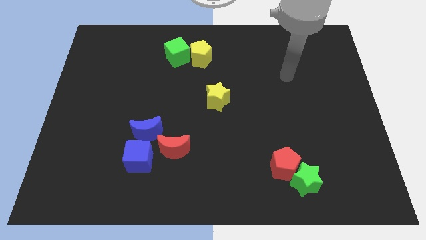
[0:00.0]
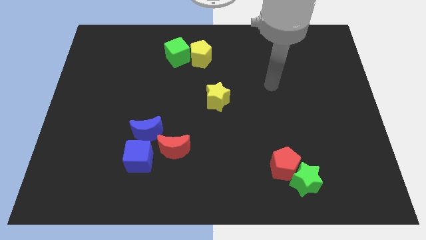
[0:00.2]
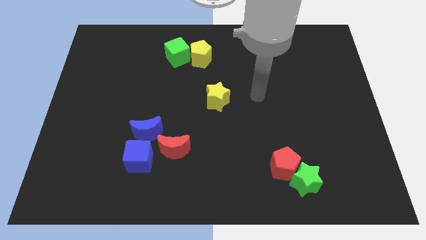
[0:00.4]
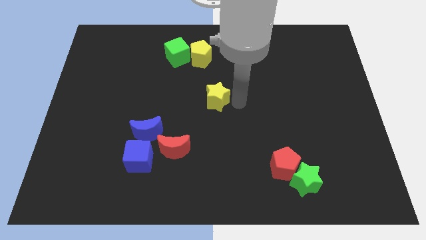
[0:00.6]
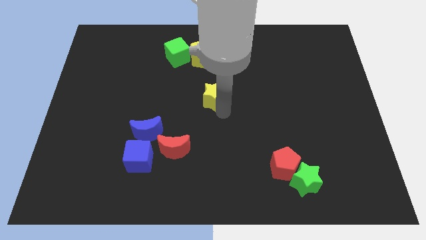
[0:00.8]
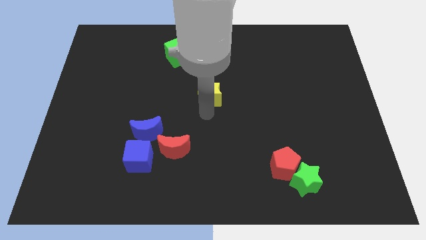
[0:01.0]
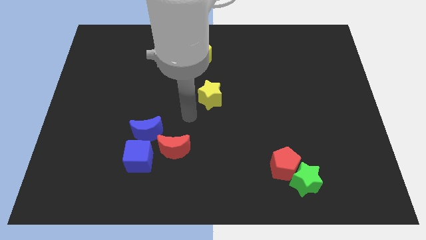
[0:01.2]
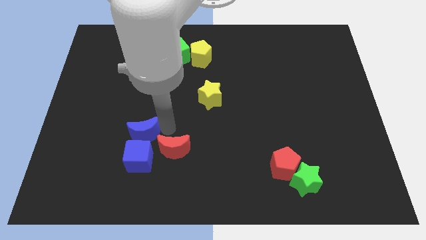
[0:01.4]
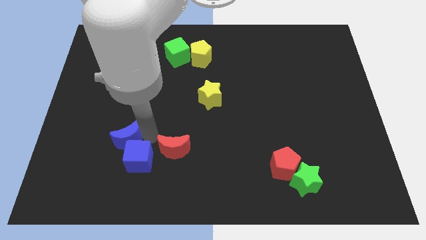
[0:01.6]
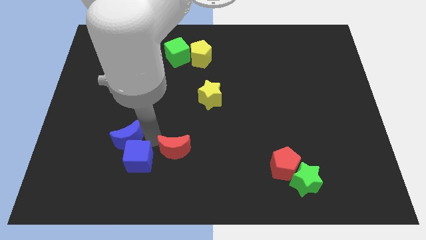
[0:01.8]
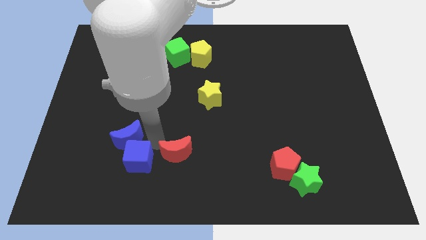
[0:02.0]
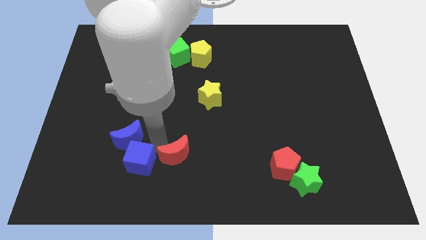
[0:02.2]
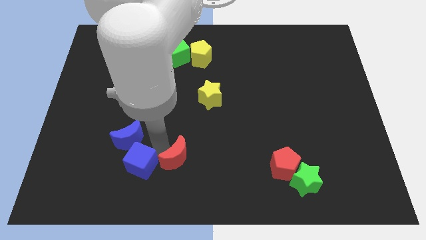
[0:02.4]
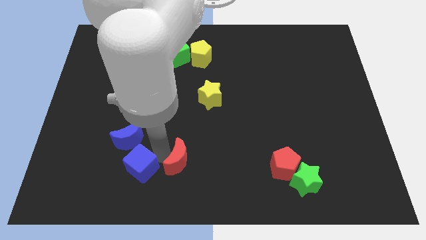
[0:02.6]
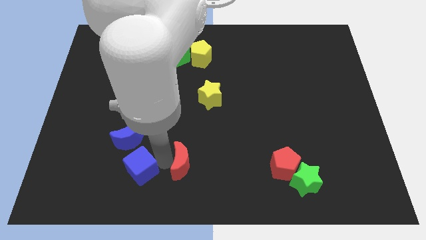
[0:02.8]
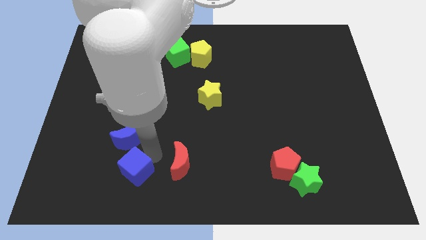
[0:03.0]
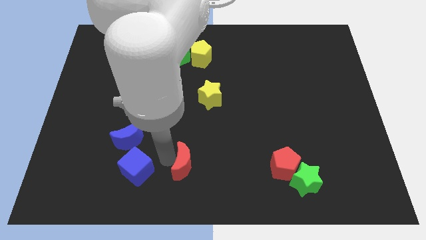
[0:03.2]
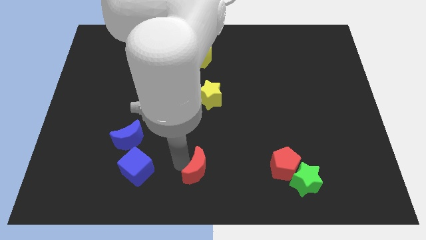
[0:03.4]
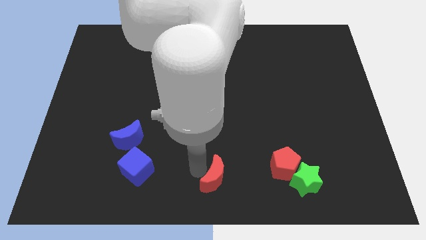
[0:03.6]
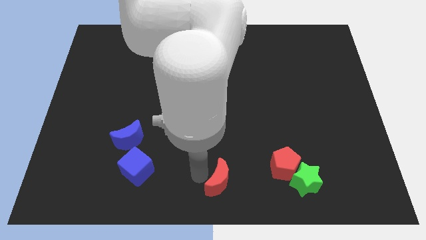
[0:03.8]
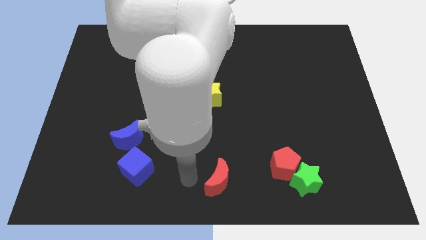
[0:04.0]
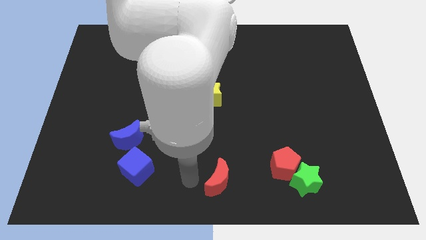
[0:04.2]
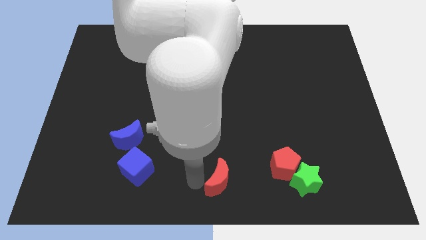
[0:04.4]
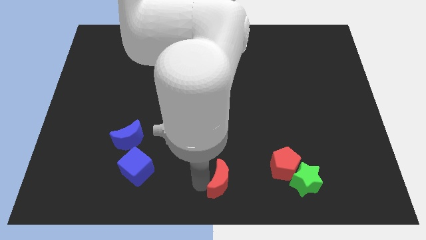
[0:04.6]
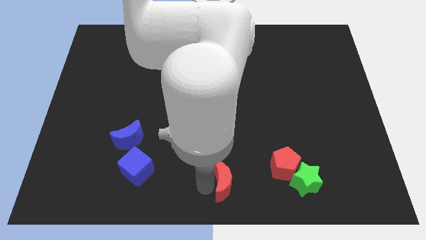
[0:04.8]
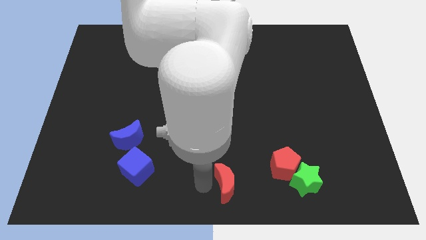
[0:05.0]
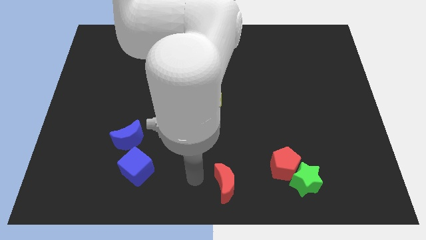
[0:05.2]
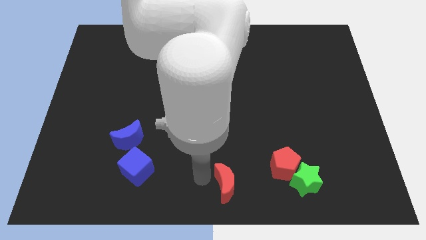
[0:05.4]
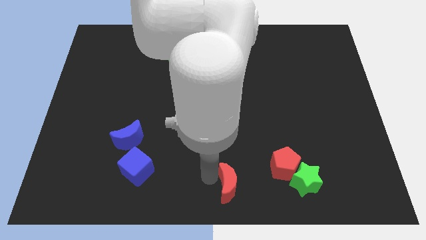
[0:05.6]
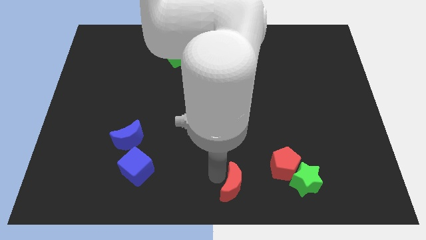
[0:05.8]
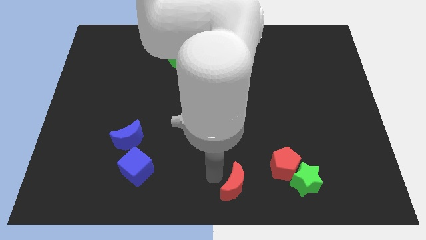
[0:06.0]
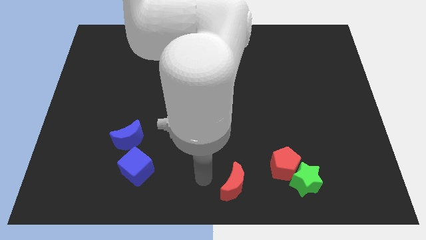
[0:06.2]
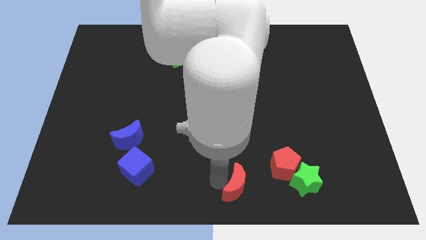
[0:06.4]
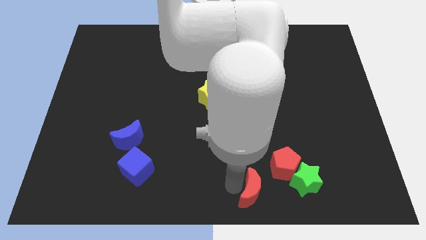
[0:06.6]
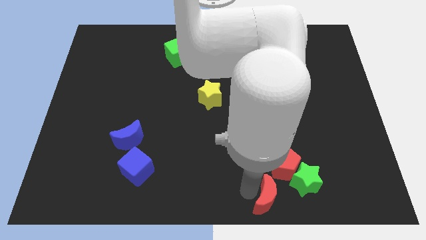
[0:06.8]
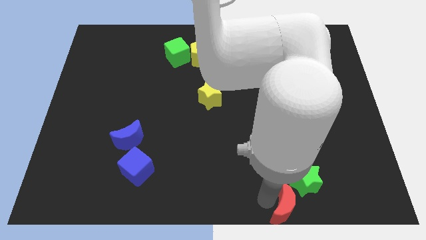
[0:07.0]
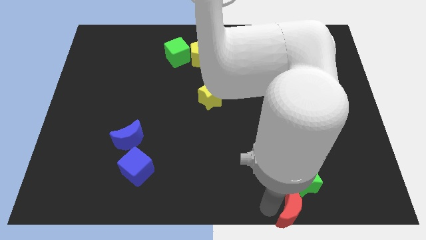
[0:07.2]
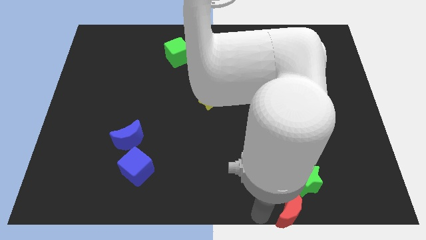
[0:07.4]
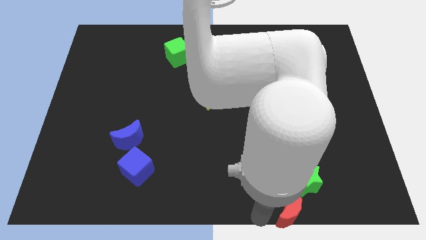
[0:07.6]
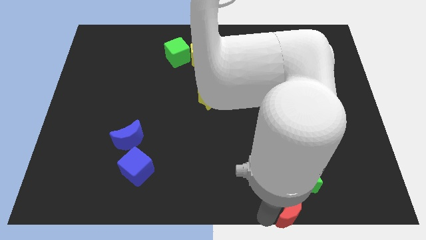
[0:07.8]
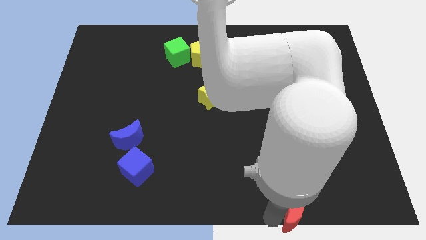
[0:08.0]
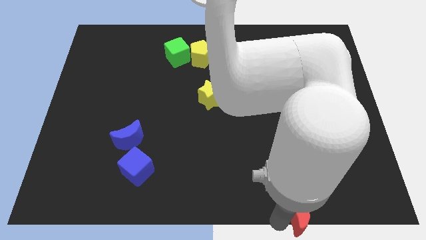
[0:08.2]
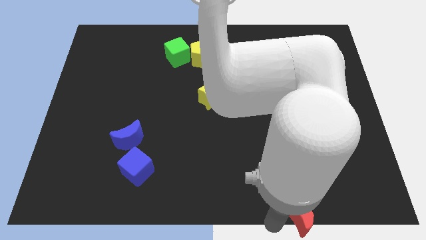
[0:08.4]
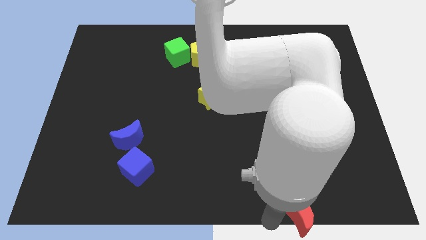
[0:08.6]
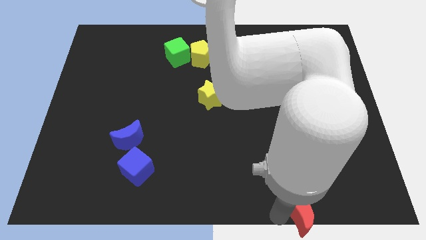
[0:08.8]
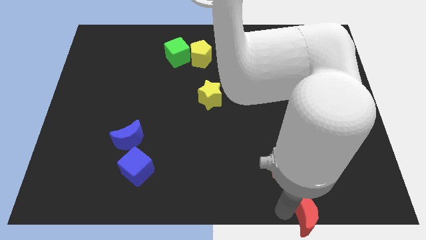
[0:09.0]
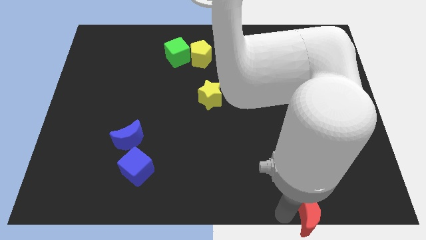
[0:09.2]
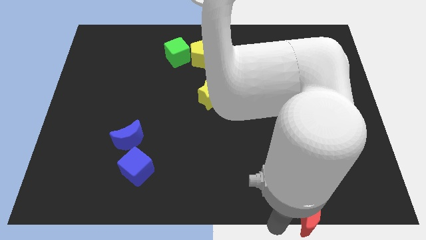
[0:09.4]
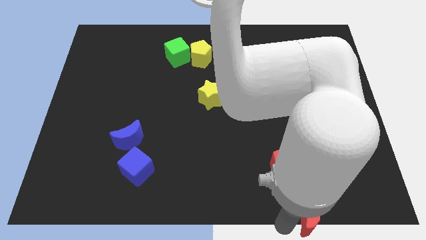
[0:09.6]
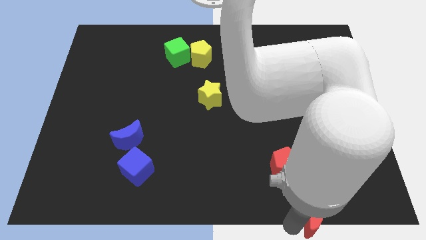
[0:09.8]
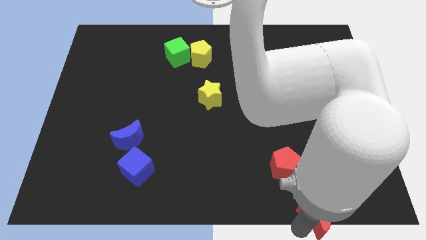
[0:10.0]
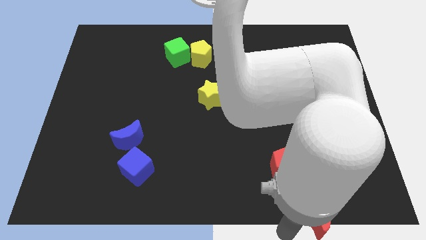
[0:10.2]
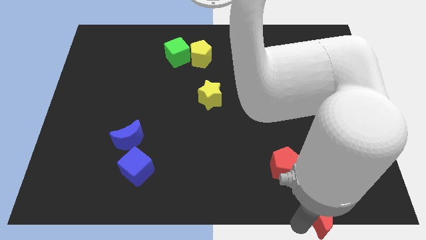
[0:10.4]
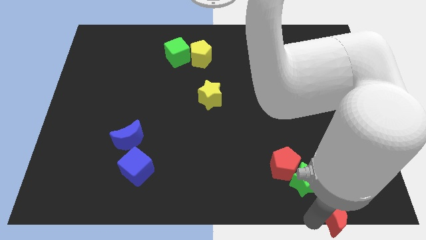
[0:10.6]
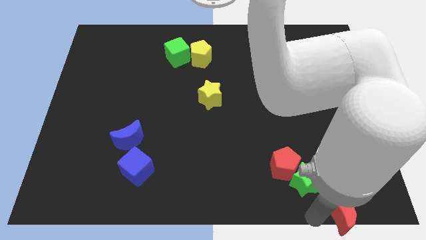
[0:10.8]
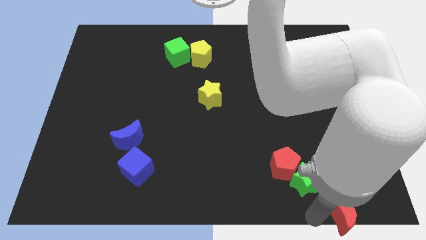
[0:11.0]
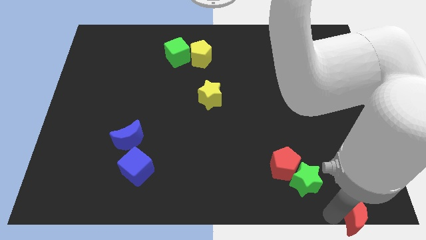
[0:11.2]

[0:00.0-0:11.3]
slide the red moon to the bottom right of the board

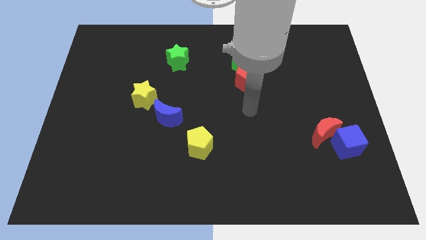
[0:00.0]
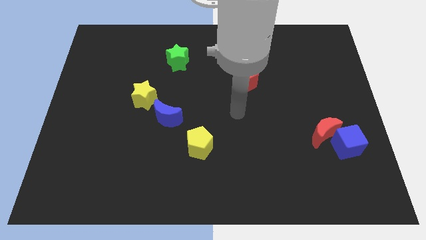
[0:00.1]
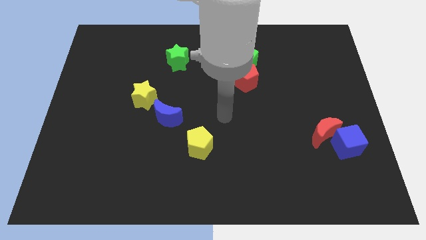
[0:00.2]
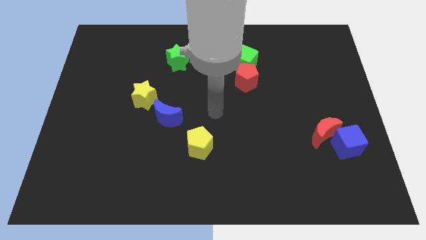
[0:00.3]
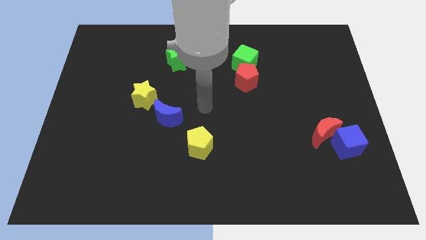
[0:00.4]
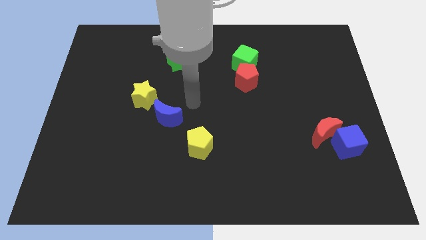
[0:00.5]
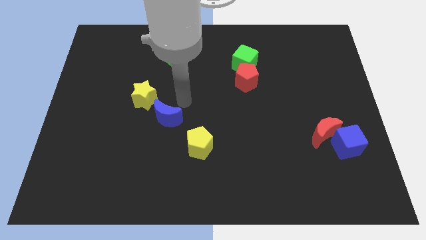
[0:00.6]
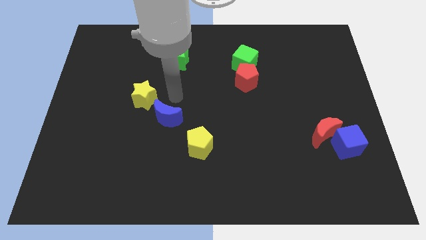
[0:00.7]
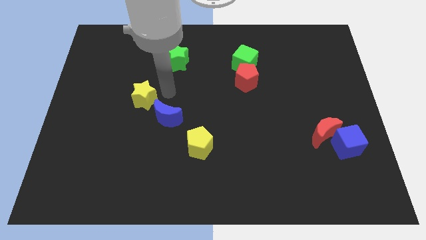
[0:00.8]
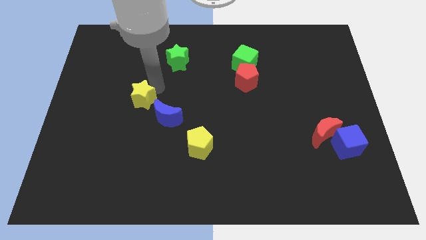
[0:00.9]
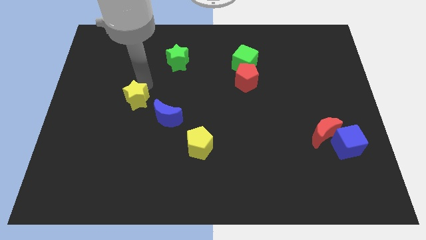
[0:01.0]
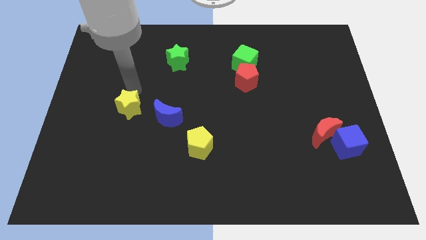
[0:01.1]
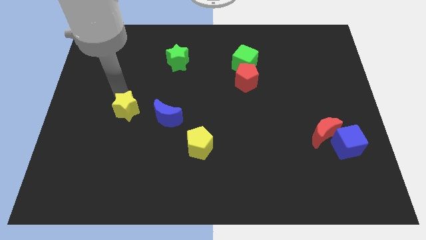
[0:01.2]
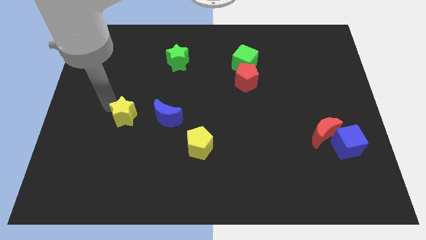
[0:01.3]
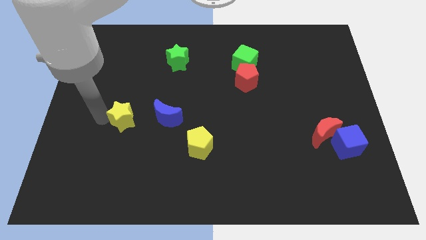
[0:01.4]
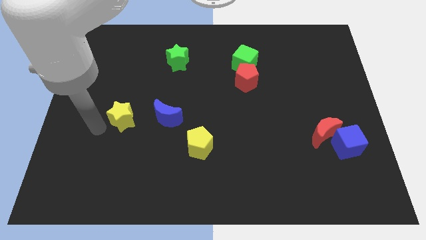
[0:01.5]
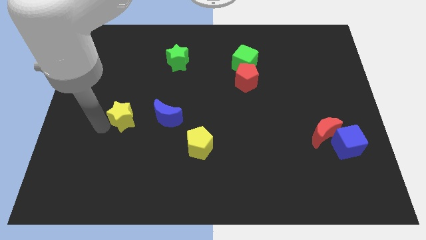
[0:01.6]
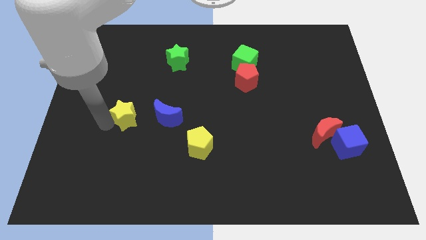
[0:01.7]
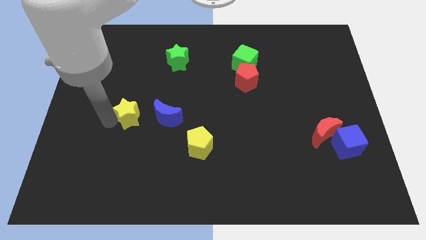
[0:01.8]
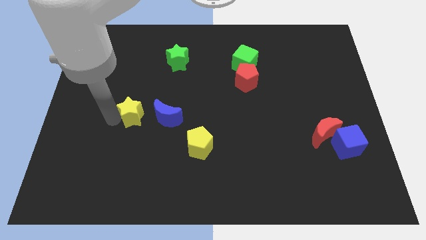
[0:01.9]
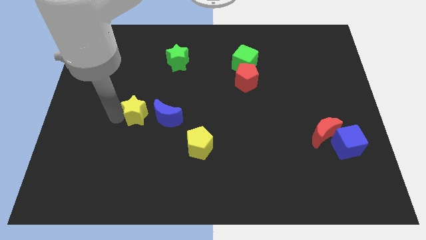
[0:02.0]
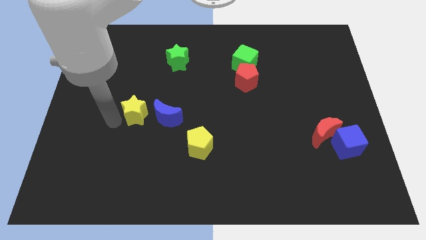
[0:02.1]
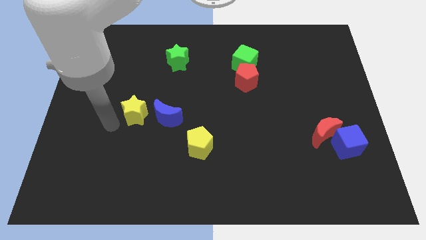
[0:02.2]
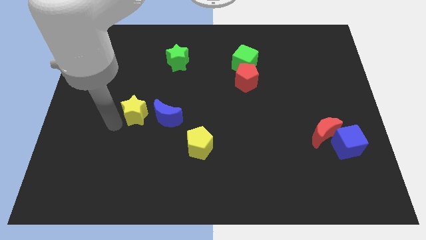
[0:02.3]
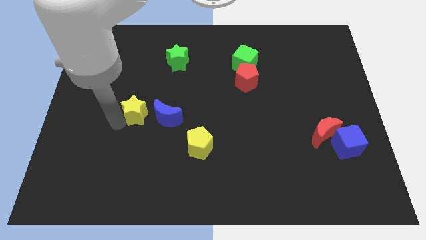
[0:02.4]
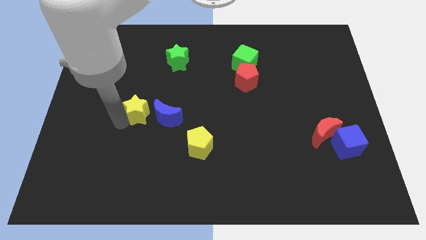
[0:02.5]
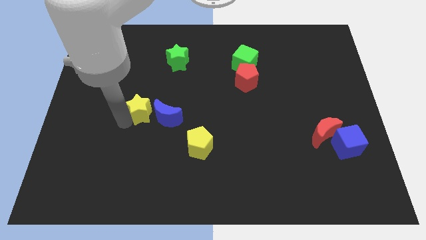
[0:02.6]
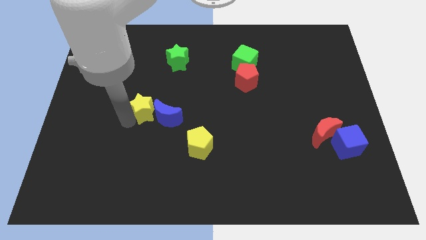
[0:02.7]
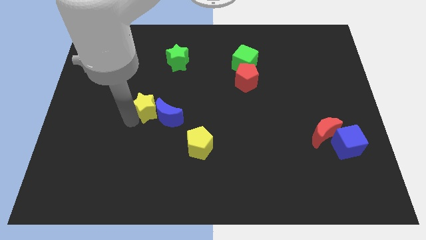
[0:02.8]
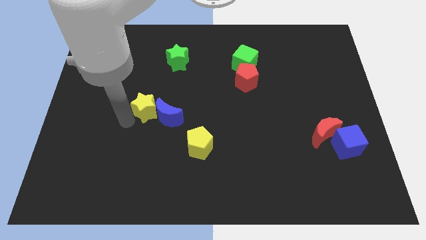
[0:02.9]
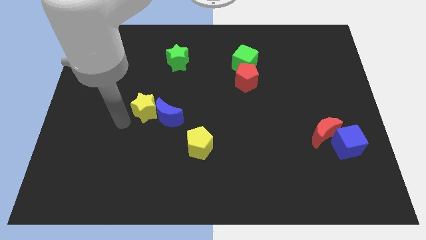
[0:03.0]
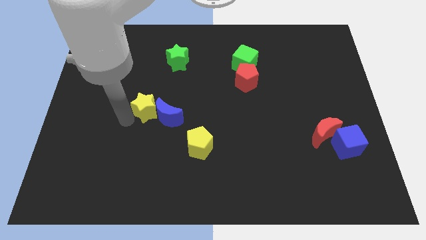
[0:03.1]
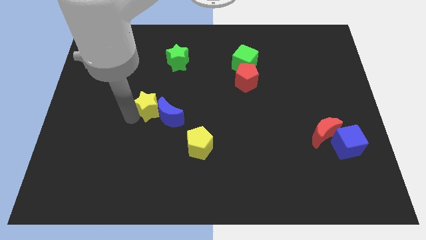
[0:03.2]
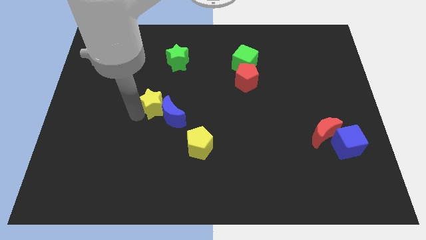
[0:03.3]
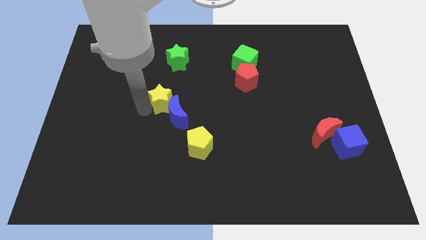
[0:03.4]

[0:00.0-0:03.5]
slide the yellow star to the middle
